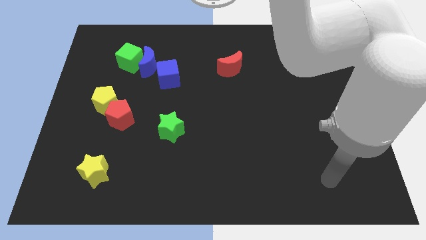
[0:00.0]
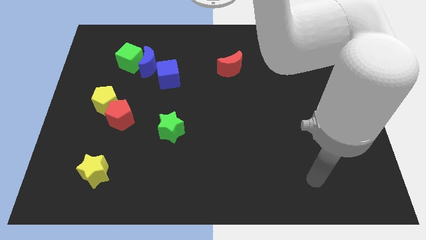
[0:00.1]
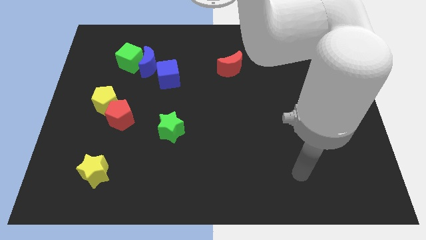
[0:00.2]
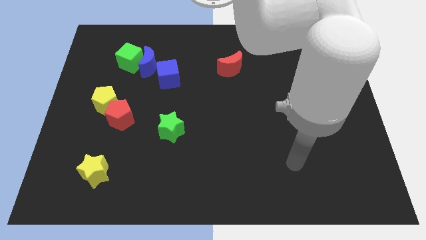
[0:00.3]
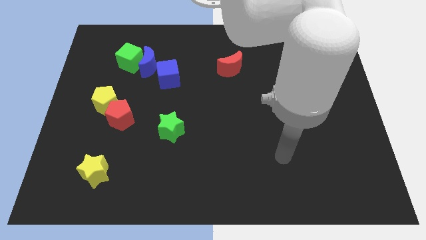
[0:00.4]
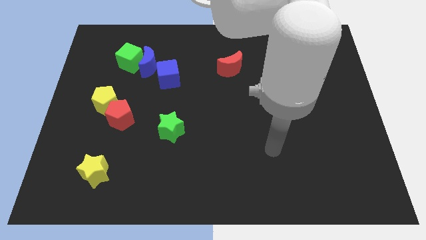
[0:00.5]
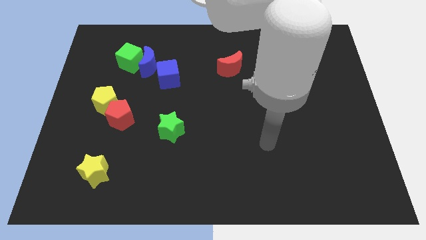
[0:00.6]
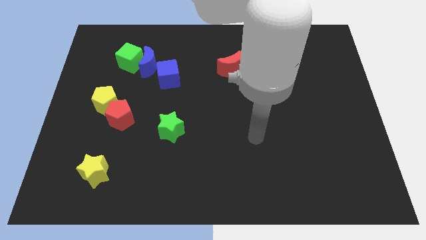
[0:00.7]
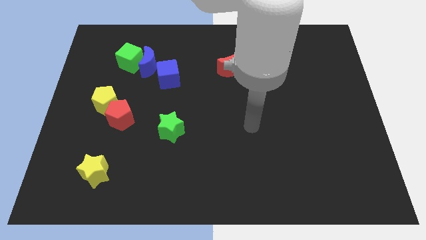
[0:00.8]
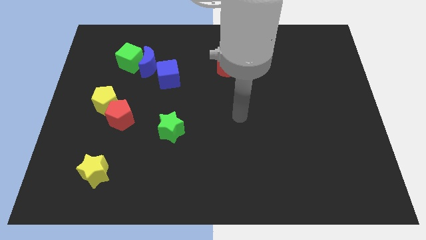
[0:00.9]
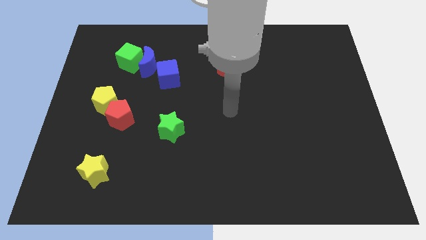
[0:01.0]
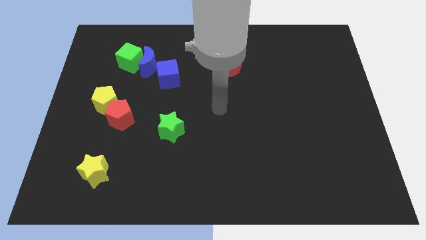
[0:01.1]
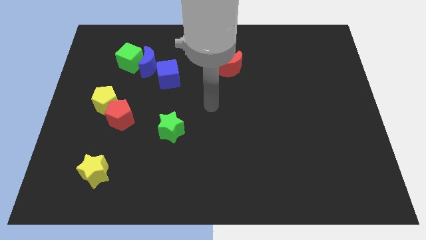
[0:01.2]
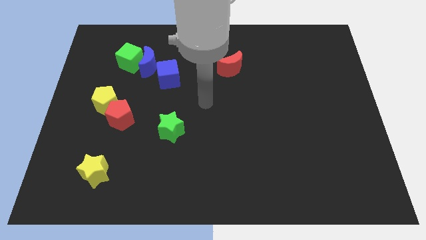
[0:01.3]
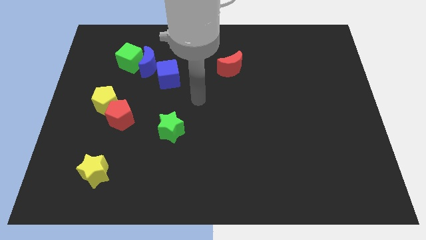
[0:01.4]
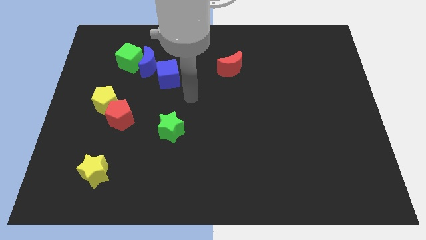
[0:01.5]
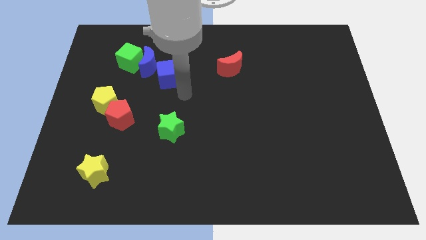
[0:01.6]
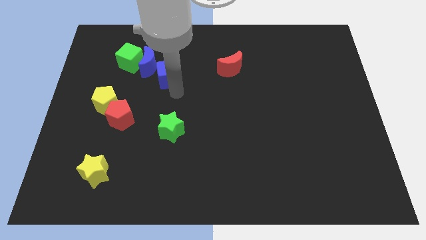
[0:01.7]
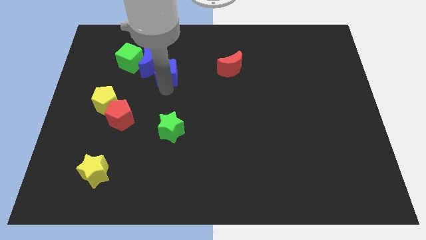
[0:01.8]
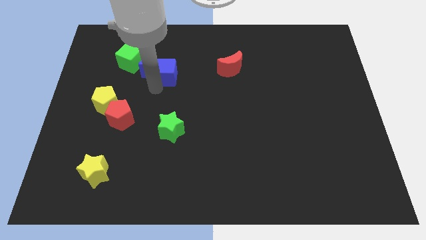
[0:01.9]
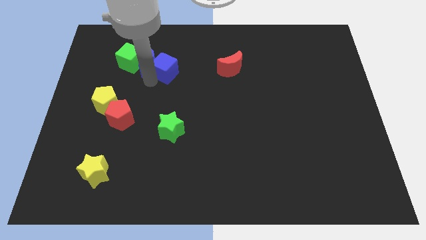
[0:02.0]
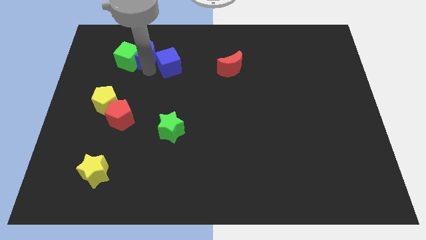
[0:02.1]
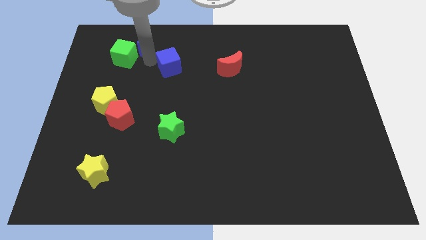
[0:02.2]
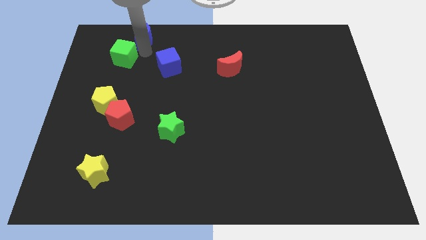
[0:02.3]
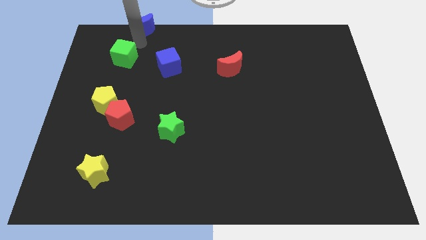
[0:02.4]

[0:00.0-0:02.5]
pull the green cube apart from the blue moon

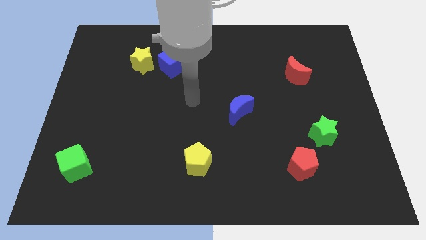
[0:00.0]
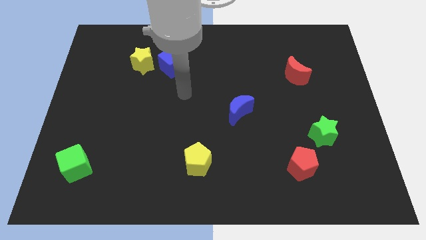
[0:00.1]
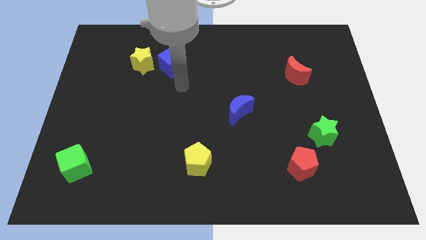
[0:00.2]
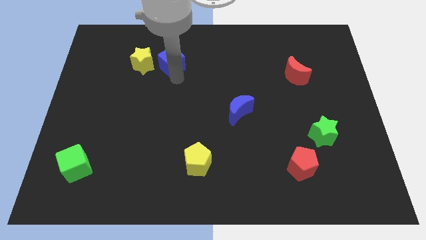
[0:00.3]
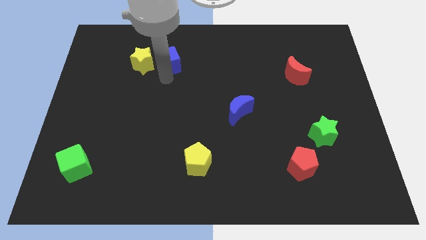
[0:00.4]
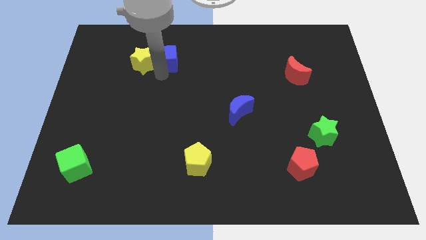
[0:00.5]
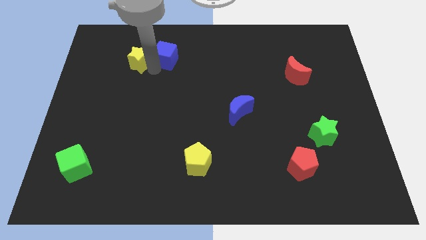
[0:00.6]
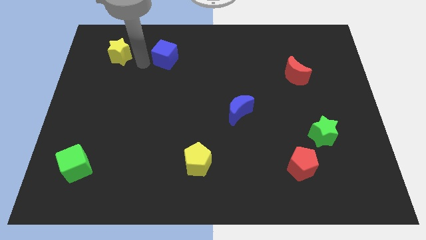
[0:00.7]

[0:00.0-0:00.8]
separate the blue cube from the yellow star

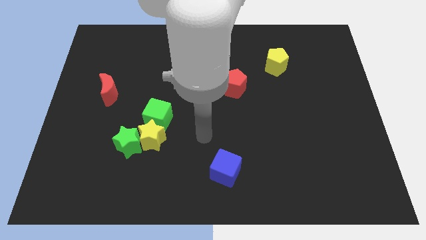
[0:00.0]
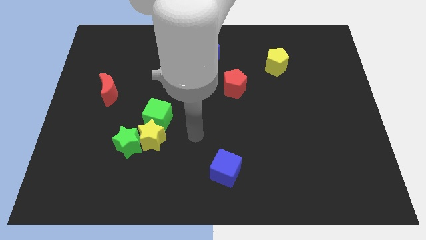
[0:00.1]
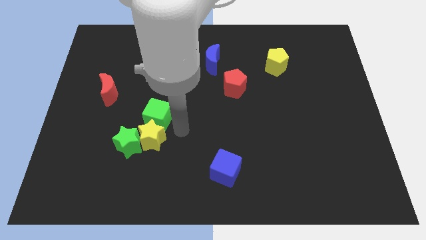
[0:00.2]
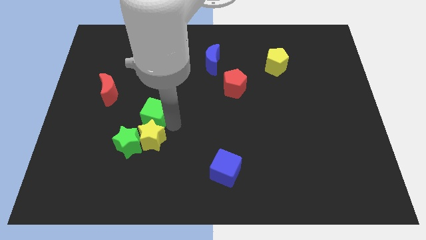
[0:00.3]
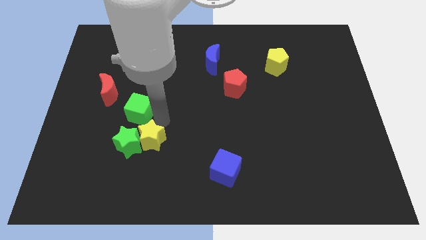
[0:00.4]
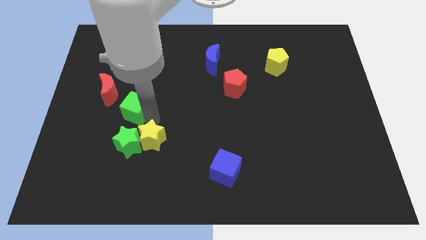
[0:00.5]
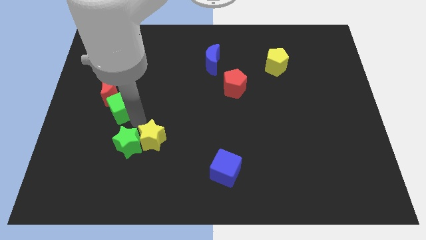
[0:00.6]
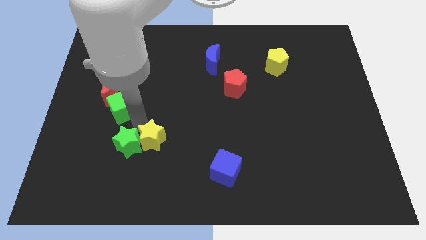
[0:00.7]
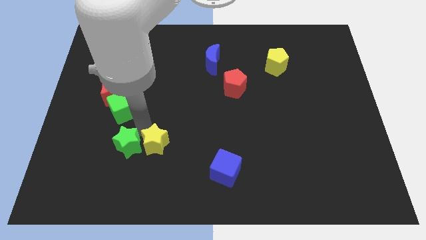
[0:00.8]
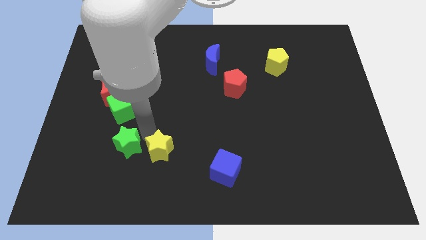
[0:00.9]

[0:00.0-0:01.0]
move the yellow star away from the green star and green cube

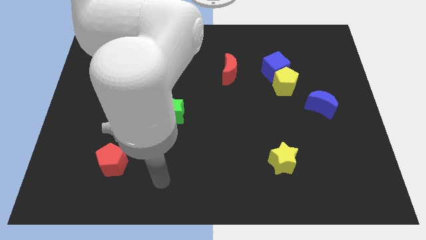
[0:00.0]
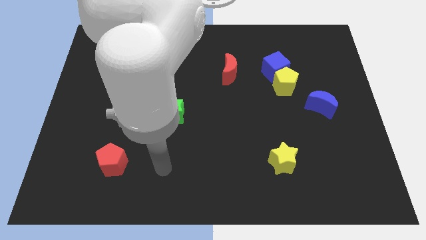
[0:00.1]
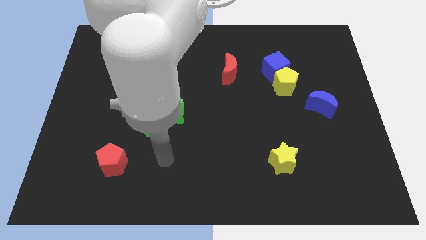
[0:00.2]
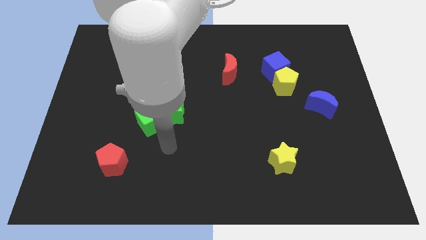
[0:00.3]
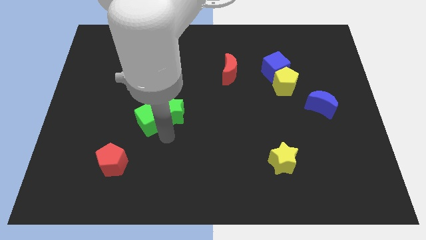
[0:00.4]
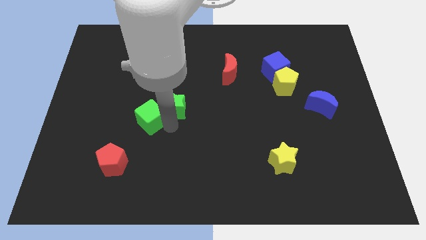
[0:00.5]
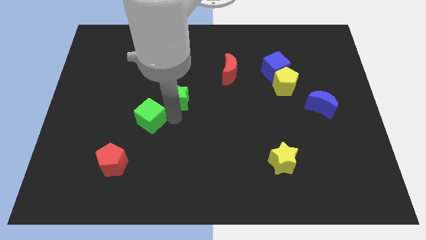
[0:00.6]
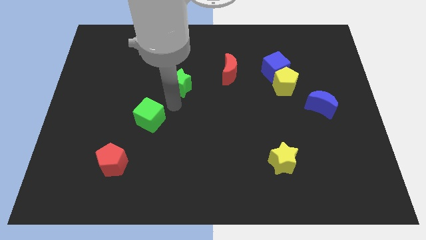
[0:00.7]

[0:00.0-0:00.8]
separate the green cube from the green star

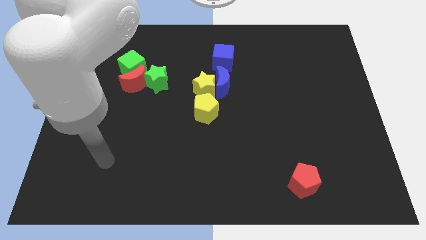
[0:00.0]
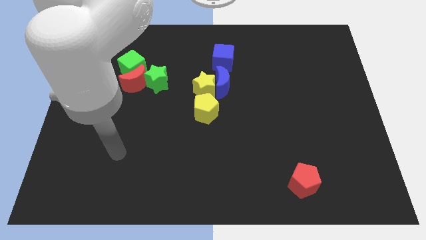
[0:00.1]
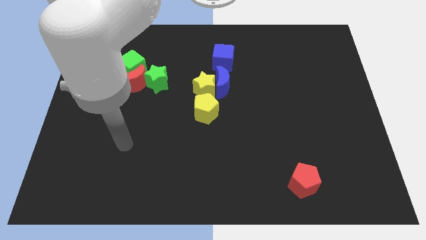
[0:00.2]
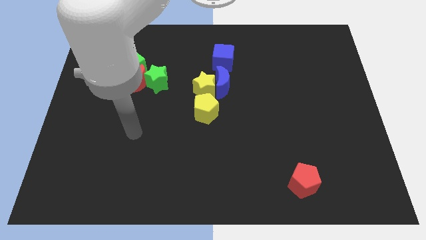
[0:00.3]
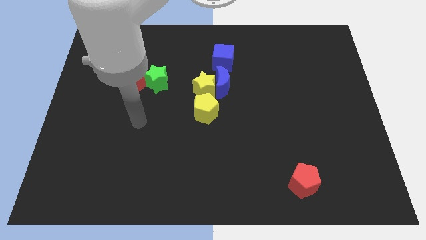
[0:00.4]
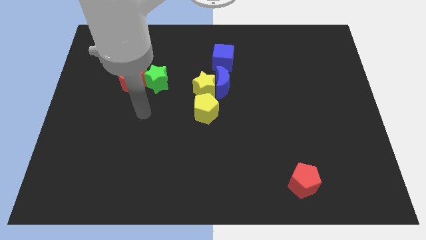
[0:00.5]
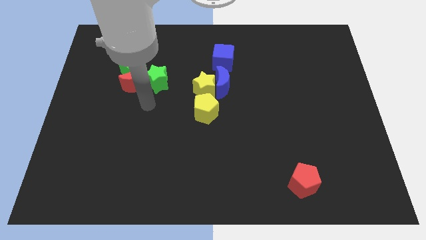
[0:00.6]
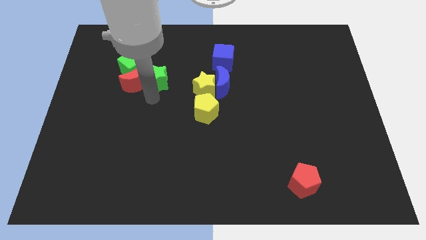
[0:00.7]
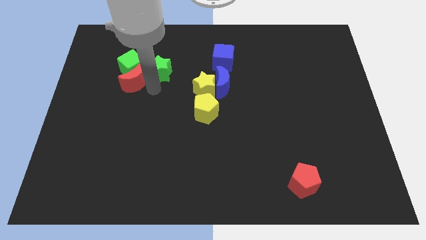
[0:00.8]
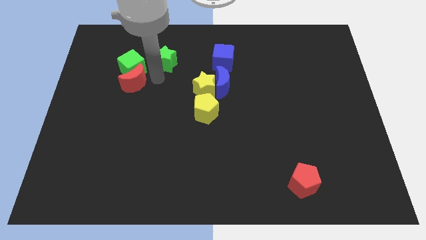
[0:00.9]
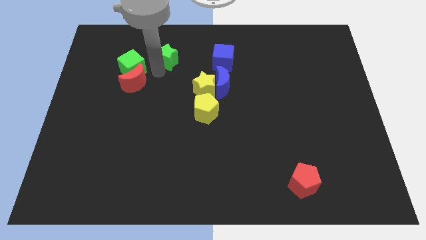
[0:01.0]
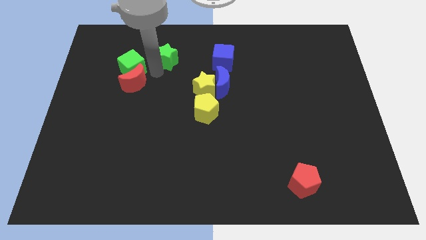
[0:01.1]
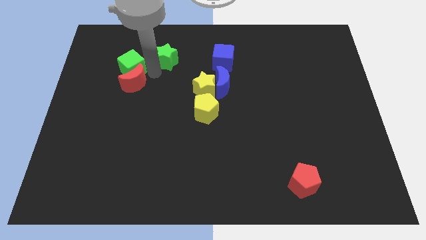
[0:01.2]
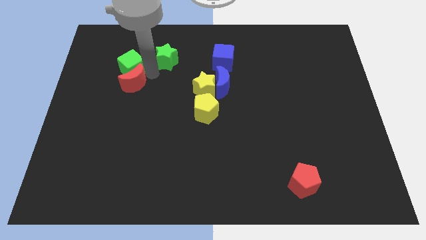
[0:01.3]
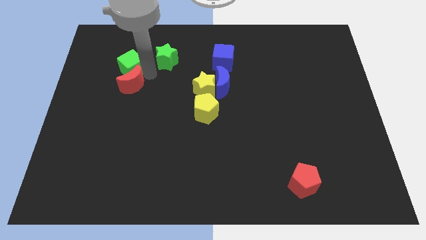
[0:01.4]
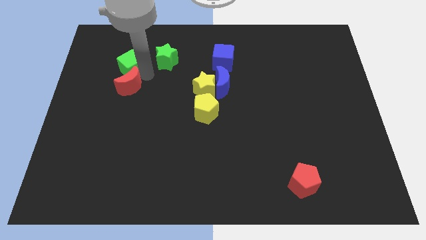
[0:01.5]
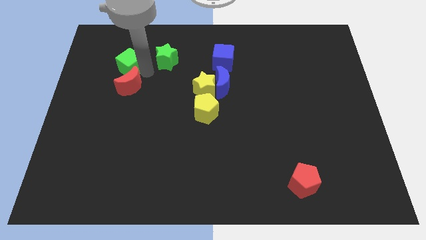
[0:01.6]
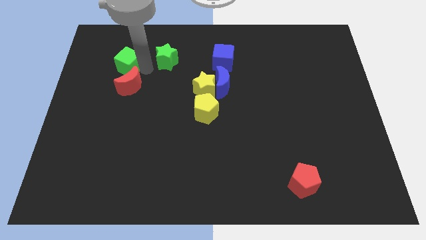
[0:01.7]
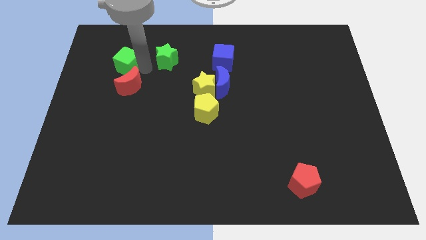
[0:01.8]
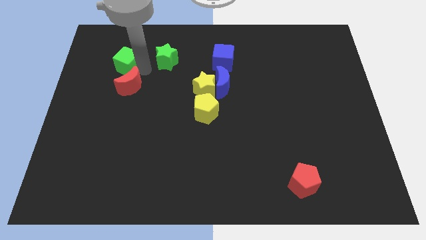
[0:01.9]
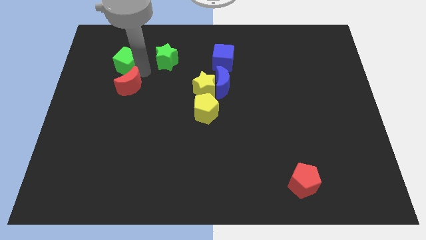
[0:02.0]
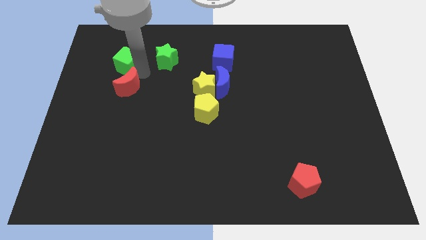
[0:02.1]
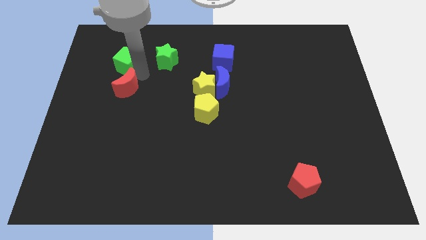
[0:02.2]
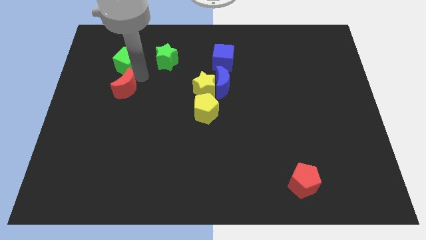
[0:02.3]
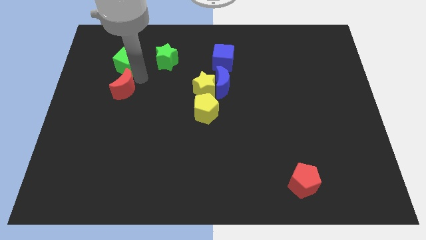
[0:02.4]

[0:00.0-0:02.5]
pull the red moon apart from the green cube and green star

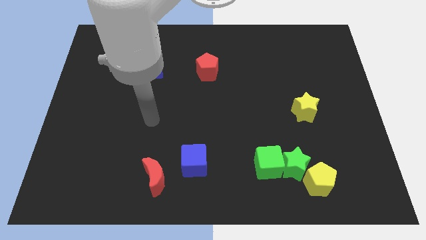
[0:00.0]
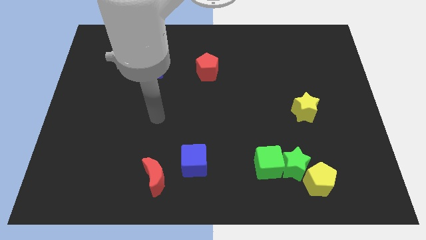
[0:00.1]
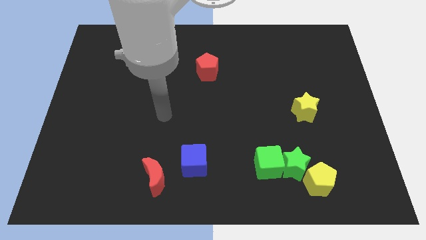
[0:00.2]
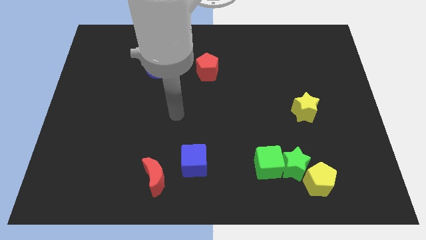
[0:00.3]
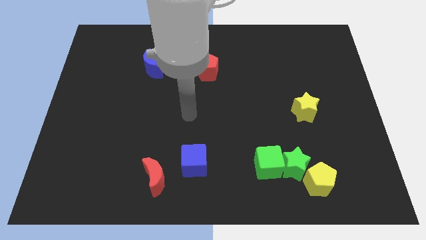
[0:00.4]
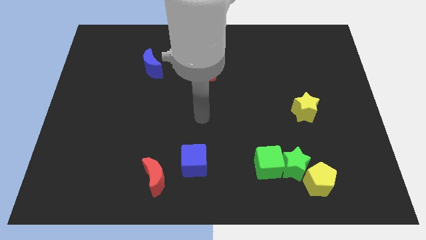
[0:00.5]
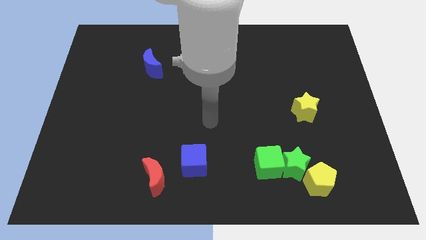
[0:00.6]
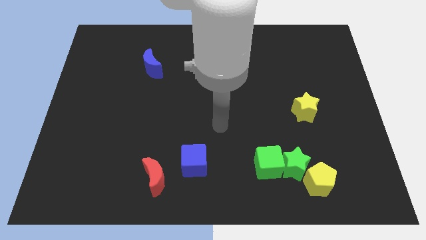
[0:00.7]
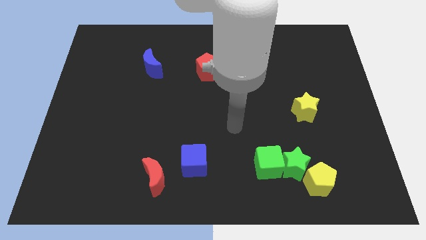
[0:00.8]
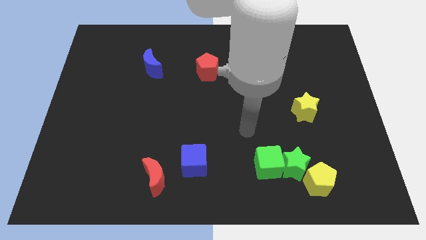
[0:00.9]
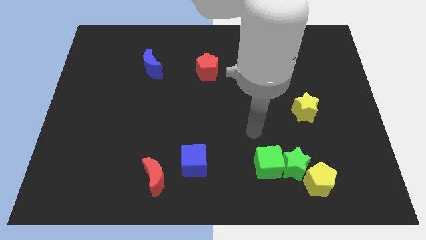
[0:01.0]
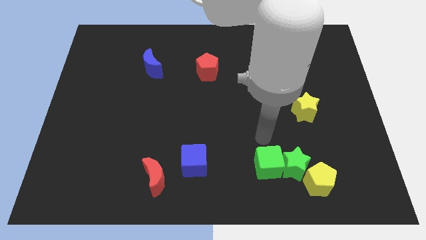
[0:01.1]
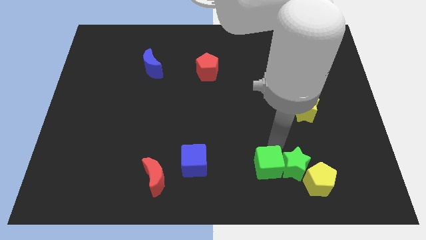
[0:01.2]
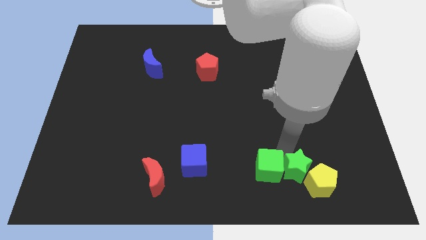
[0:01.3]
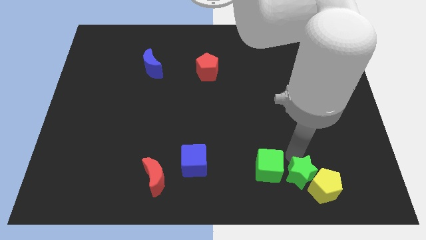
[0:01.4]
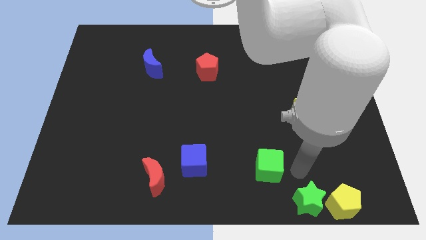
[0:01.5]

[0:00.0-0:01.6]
move the green cube away from the green star

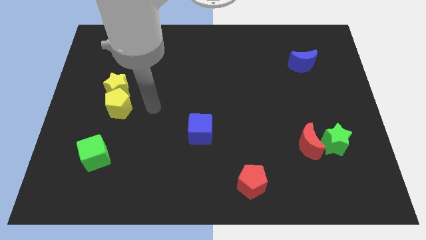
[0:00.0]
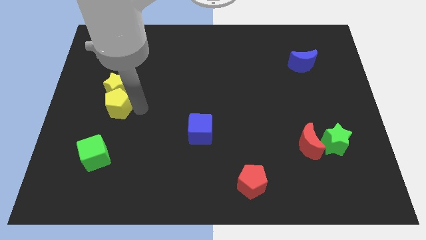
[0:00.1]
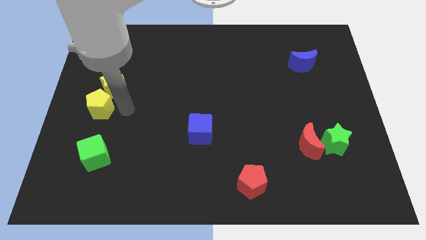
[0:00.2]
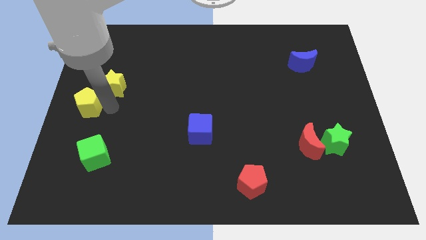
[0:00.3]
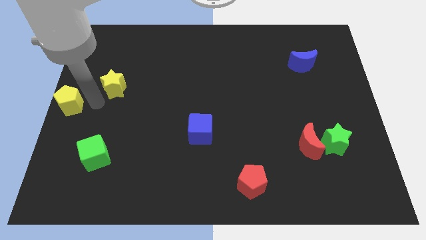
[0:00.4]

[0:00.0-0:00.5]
pull the yellow star apart from the yellow pentagon
